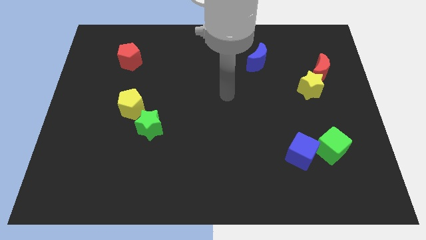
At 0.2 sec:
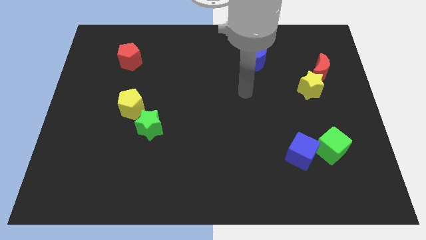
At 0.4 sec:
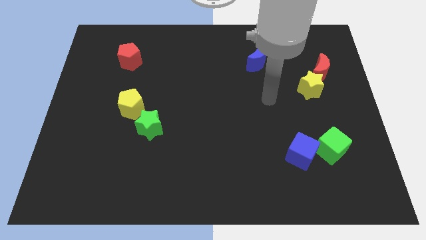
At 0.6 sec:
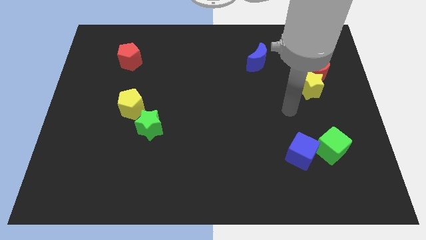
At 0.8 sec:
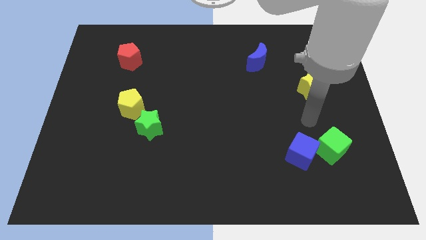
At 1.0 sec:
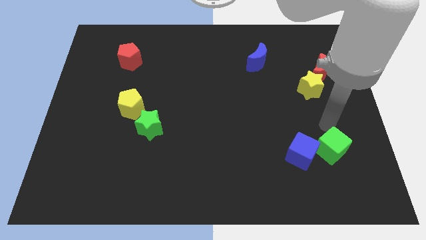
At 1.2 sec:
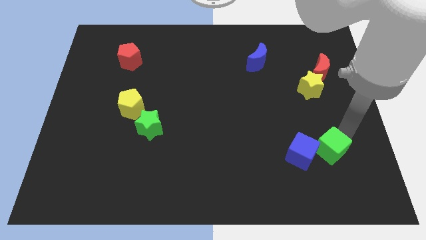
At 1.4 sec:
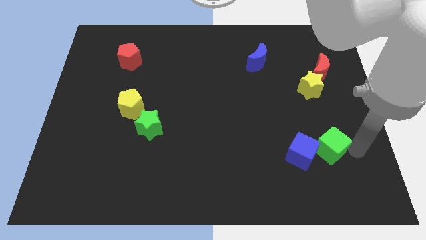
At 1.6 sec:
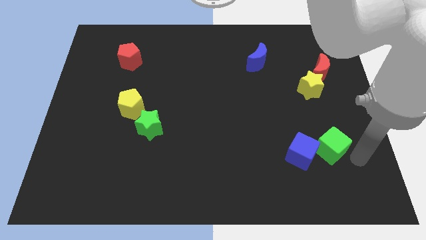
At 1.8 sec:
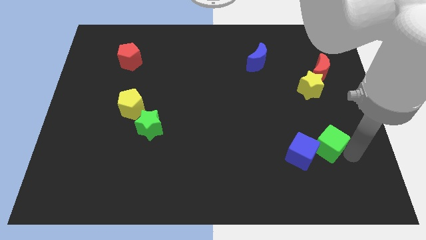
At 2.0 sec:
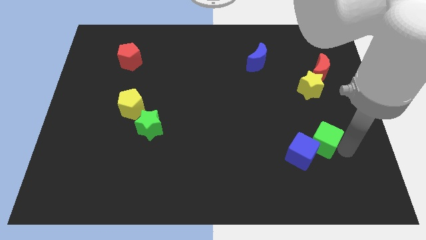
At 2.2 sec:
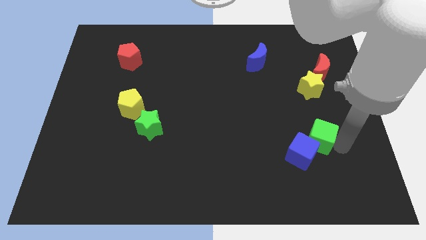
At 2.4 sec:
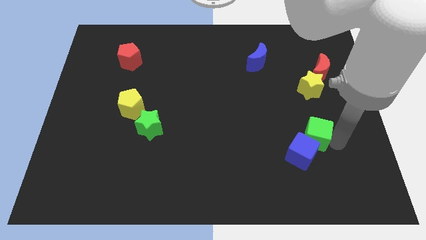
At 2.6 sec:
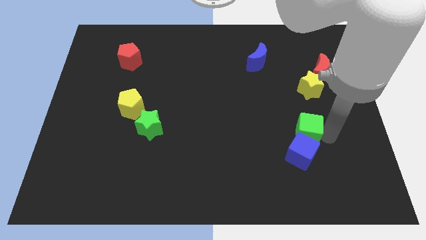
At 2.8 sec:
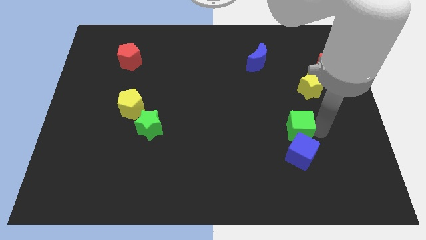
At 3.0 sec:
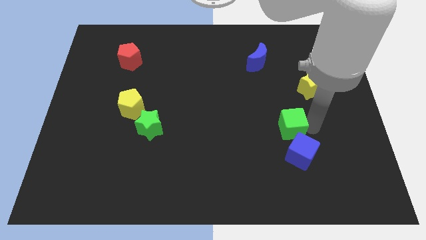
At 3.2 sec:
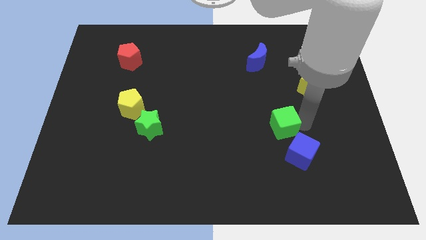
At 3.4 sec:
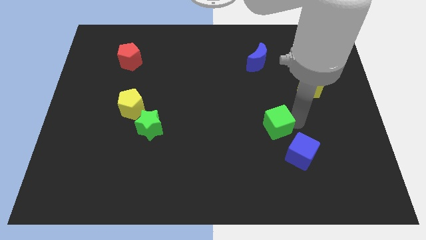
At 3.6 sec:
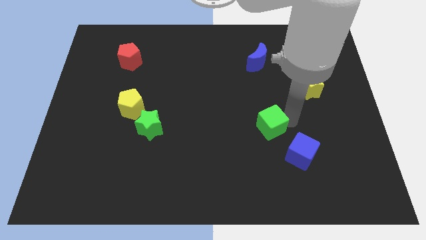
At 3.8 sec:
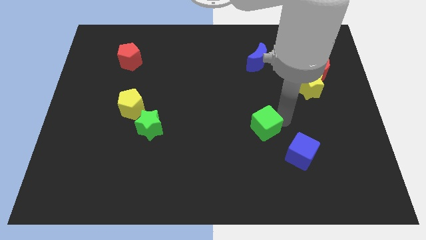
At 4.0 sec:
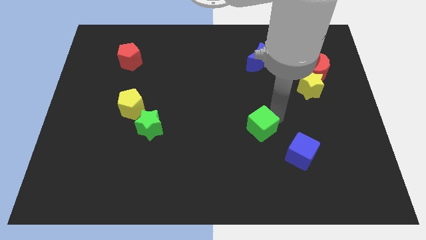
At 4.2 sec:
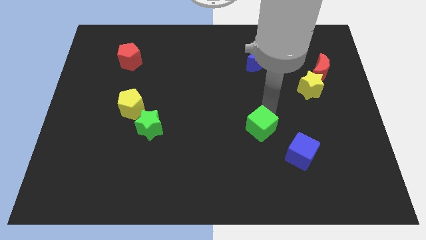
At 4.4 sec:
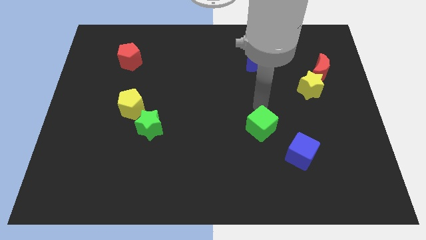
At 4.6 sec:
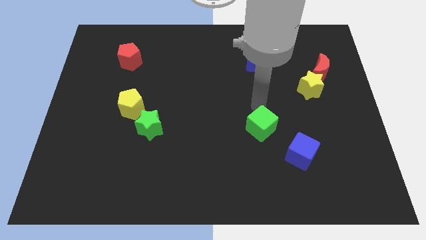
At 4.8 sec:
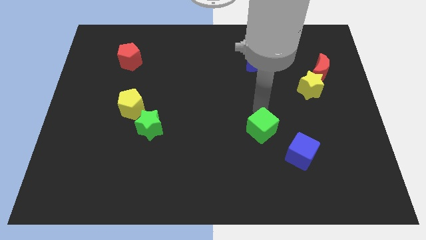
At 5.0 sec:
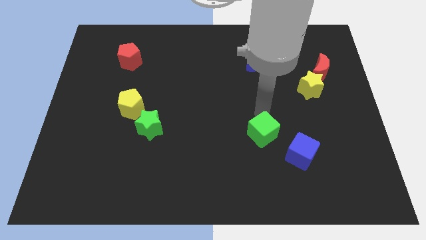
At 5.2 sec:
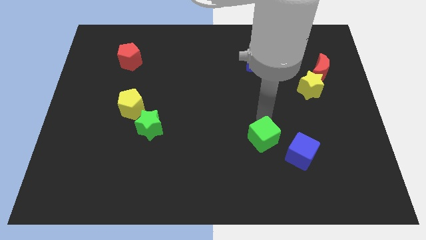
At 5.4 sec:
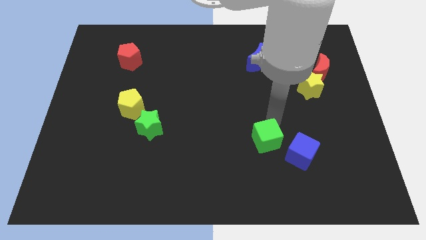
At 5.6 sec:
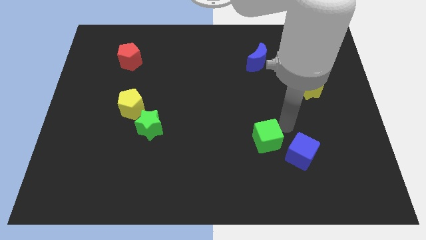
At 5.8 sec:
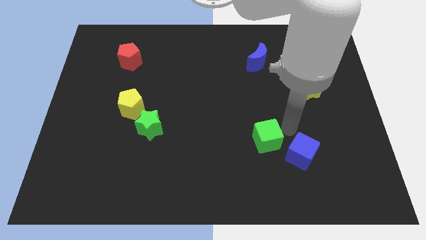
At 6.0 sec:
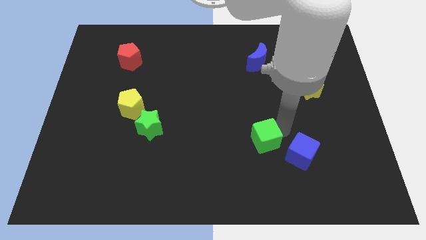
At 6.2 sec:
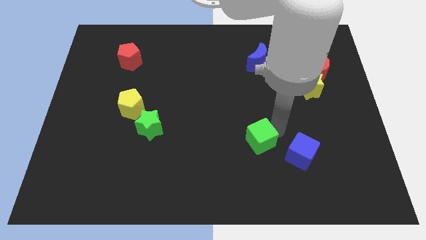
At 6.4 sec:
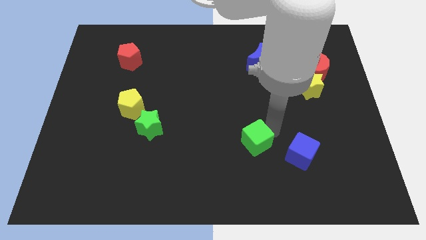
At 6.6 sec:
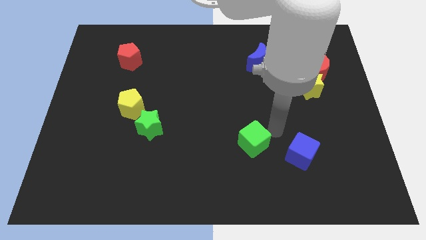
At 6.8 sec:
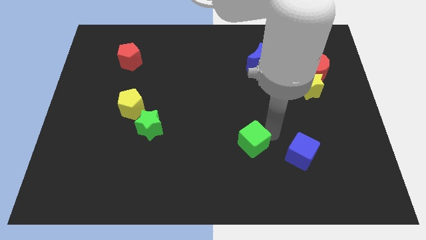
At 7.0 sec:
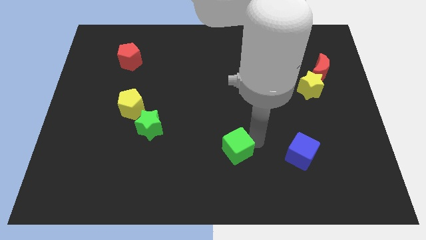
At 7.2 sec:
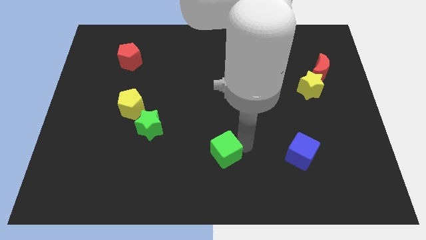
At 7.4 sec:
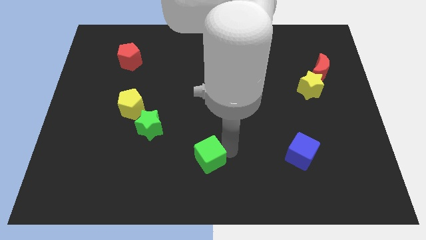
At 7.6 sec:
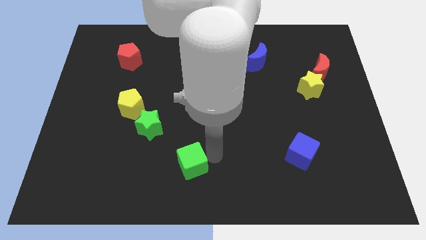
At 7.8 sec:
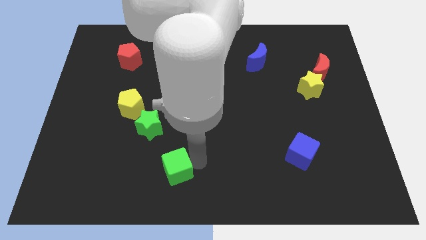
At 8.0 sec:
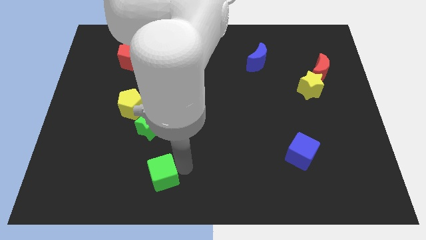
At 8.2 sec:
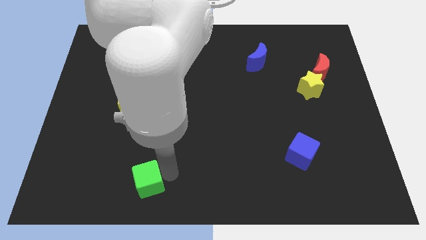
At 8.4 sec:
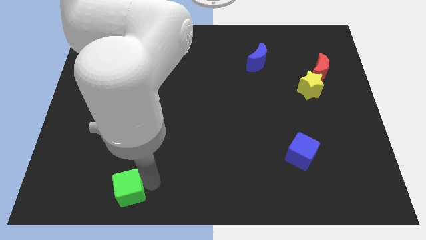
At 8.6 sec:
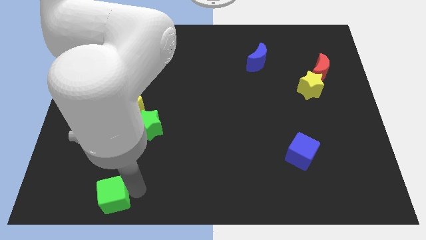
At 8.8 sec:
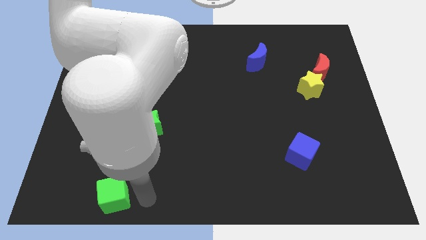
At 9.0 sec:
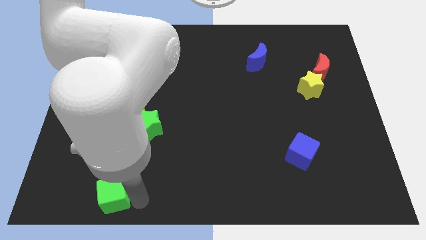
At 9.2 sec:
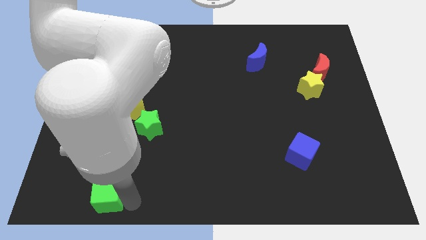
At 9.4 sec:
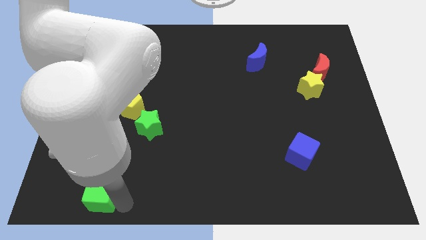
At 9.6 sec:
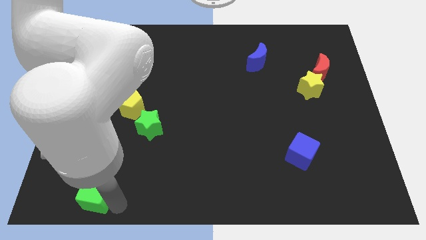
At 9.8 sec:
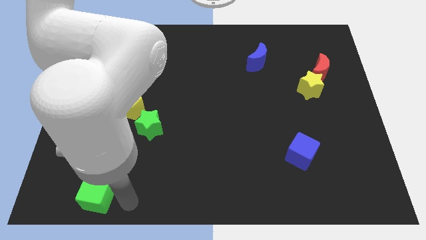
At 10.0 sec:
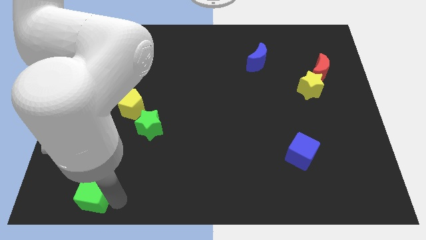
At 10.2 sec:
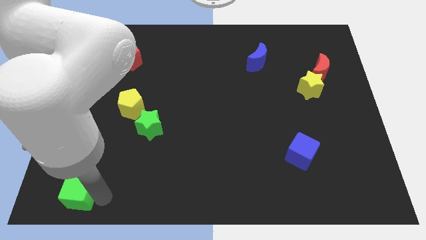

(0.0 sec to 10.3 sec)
put the green cube to the bottom left

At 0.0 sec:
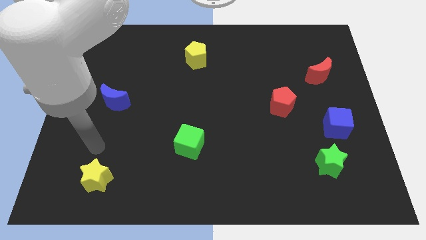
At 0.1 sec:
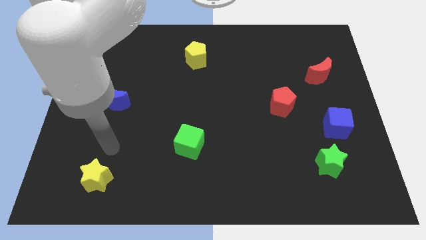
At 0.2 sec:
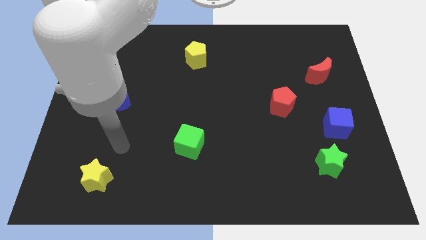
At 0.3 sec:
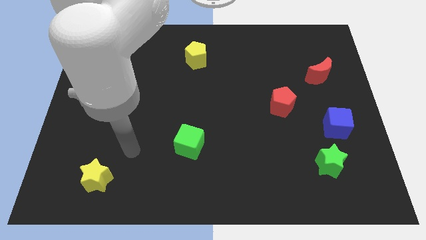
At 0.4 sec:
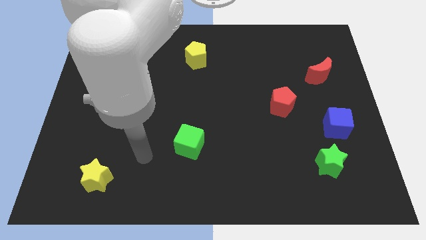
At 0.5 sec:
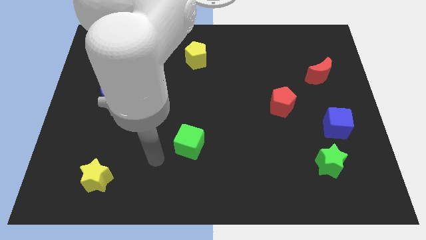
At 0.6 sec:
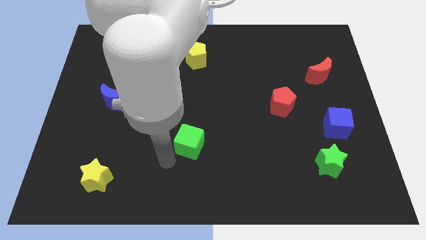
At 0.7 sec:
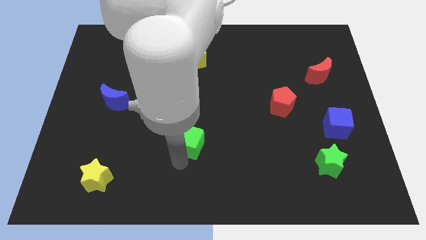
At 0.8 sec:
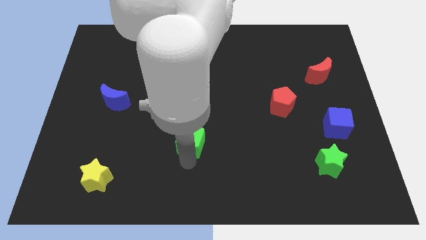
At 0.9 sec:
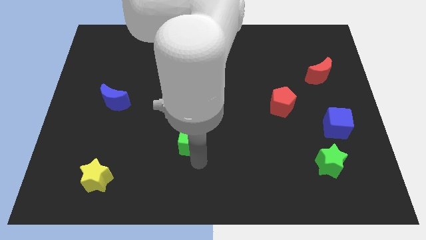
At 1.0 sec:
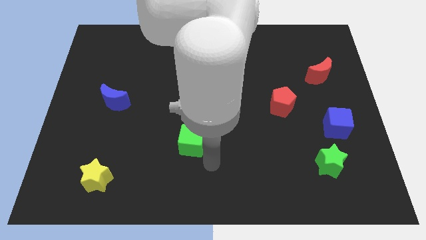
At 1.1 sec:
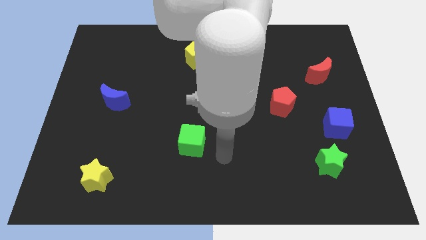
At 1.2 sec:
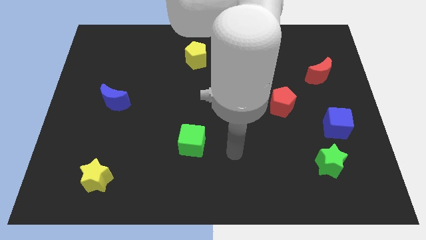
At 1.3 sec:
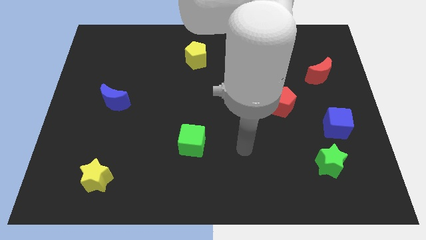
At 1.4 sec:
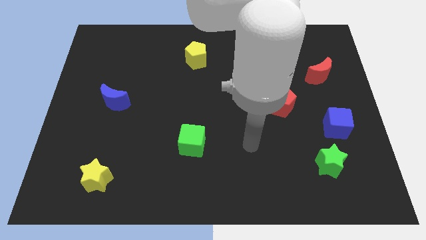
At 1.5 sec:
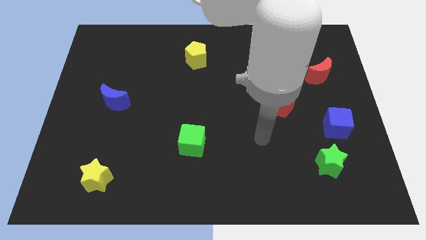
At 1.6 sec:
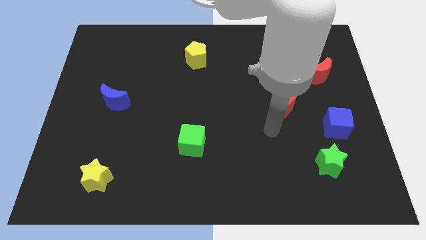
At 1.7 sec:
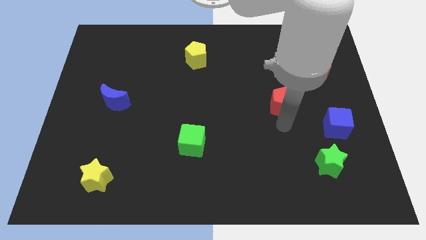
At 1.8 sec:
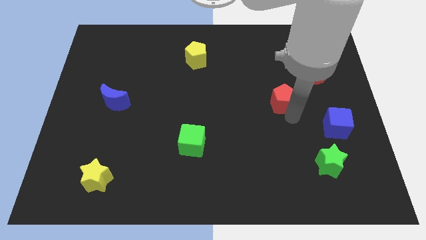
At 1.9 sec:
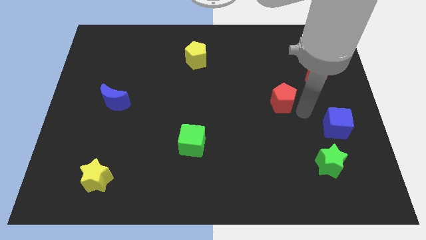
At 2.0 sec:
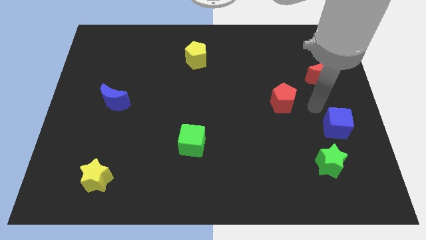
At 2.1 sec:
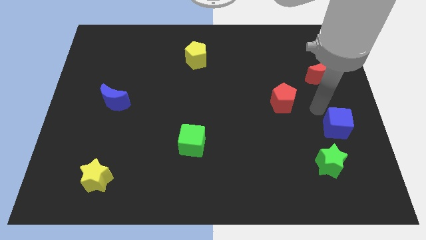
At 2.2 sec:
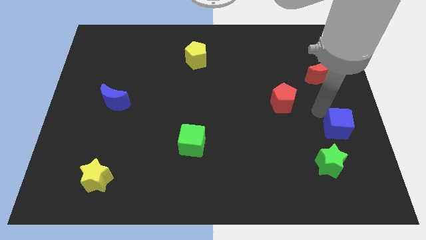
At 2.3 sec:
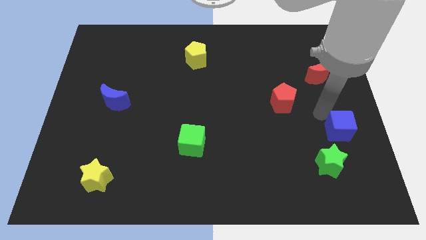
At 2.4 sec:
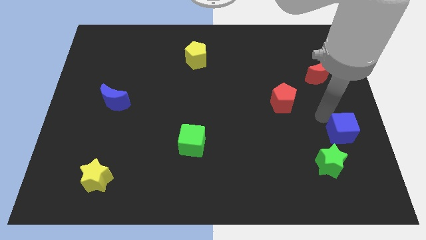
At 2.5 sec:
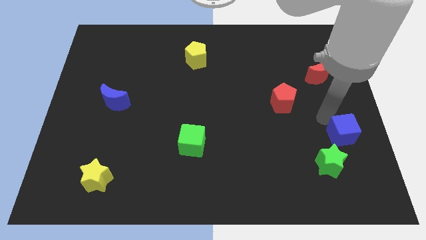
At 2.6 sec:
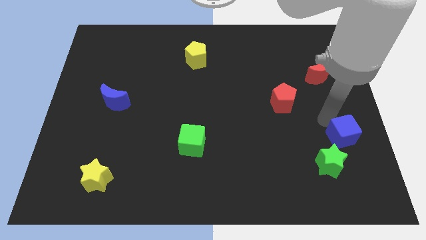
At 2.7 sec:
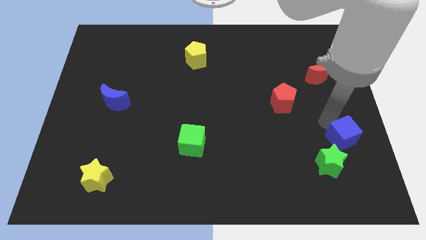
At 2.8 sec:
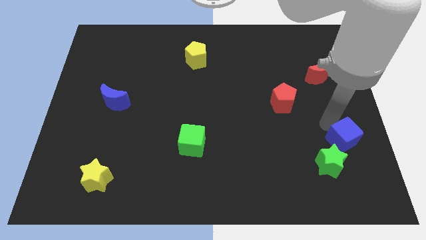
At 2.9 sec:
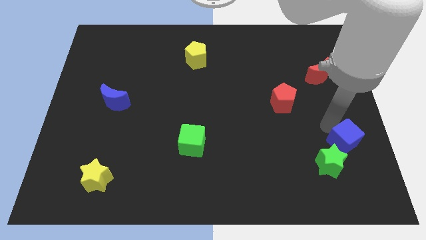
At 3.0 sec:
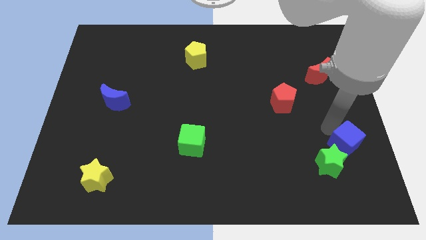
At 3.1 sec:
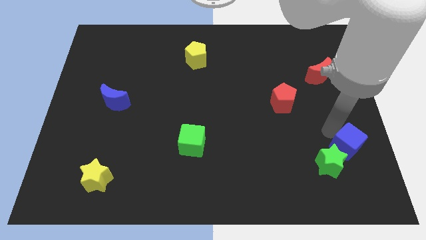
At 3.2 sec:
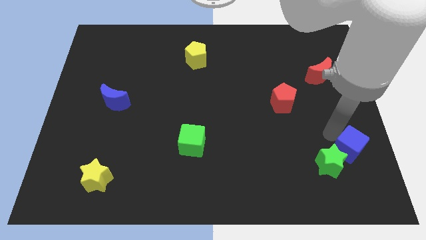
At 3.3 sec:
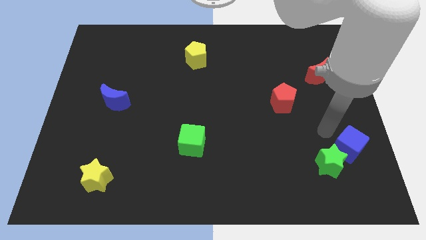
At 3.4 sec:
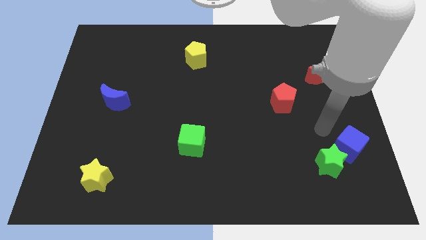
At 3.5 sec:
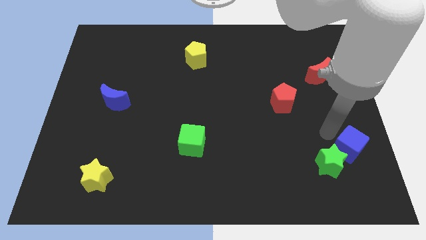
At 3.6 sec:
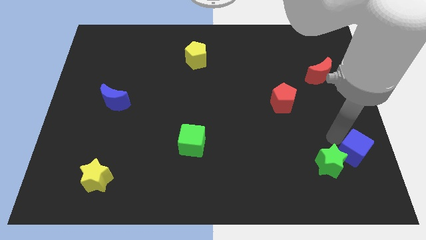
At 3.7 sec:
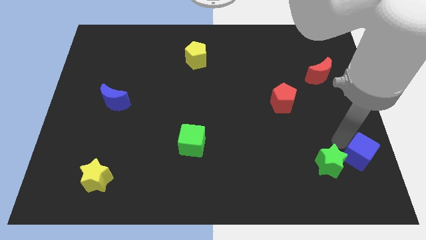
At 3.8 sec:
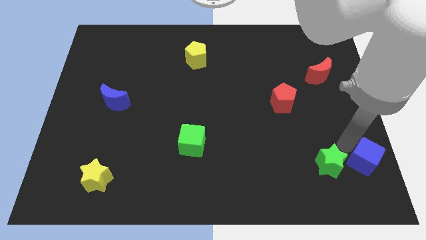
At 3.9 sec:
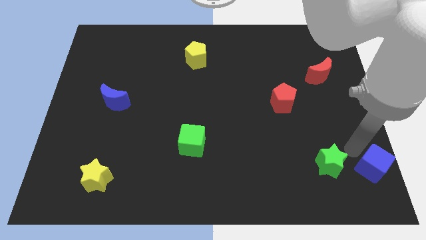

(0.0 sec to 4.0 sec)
put the blue cube to the lower right corner
